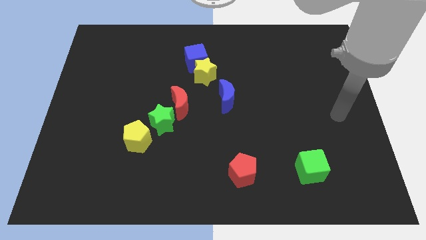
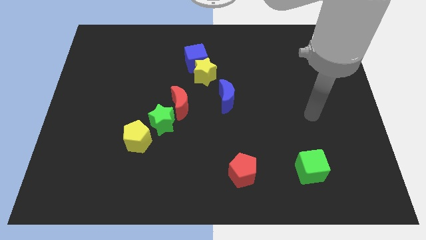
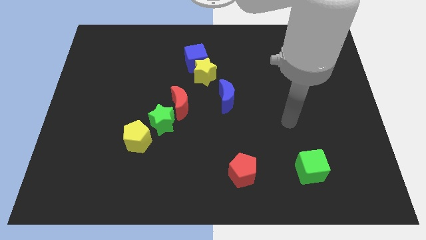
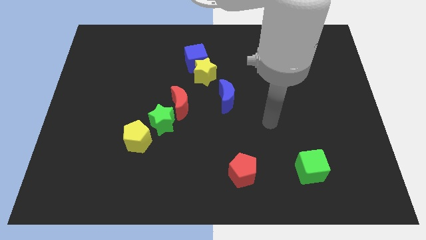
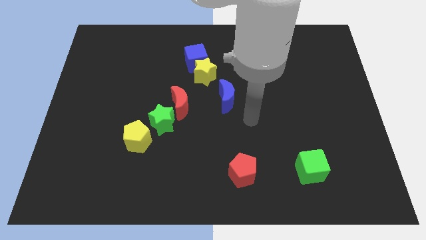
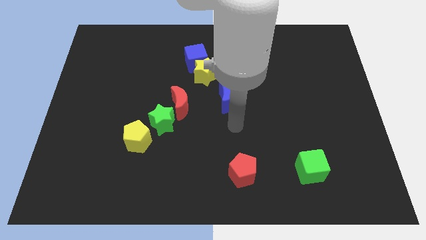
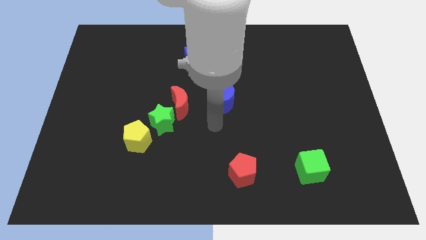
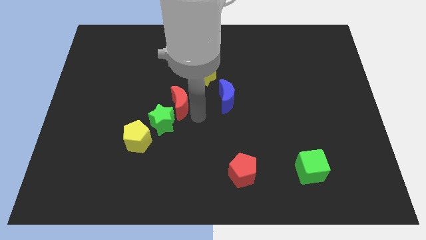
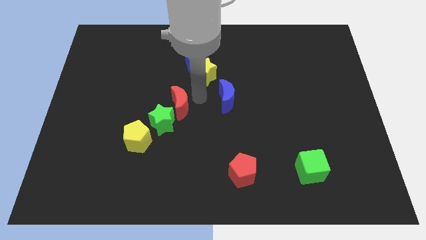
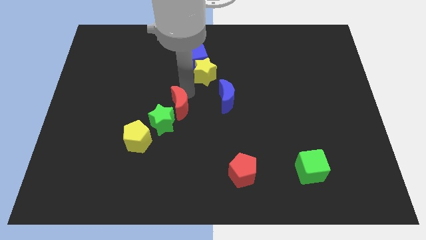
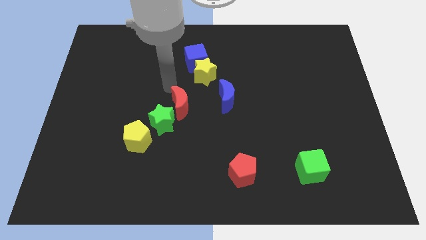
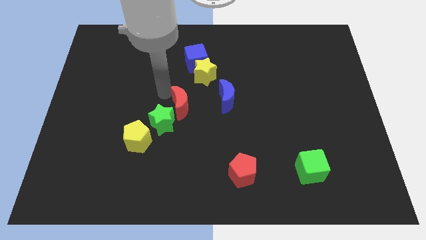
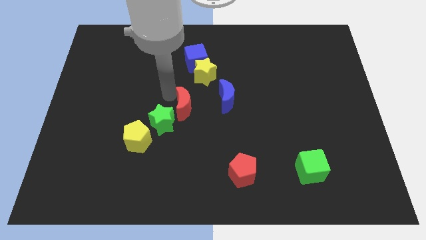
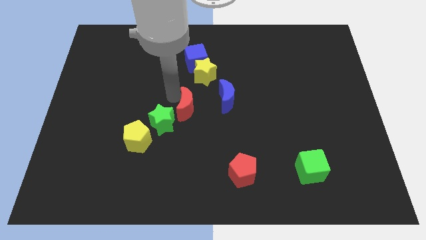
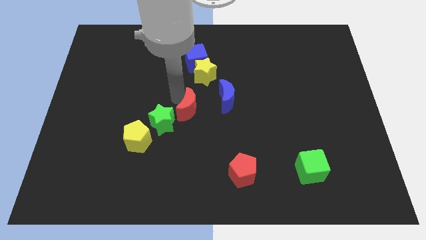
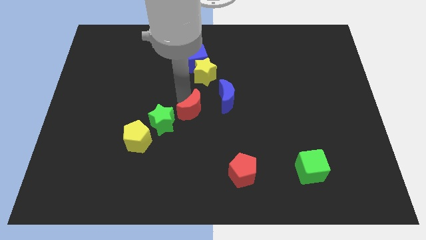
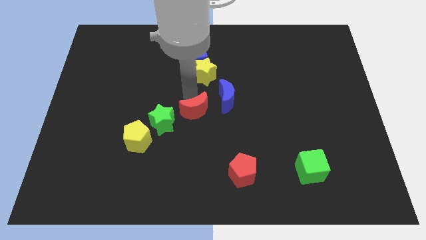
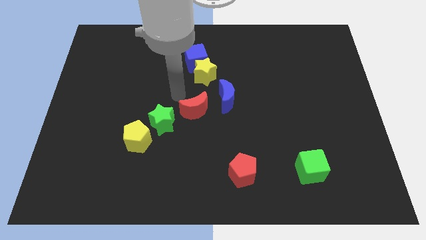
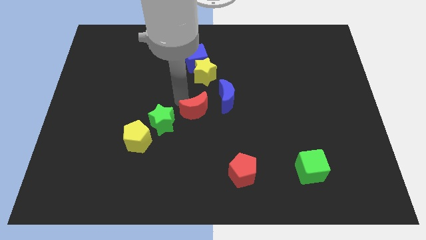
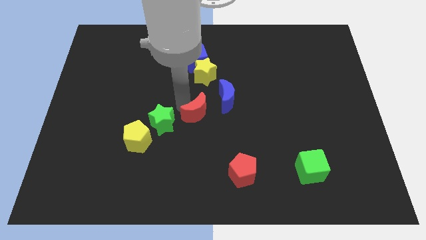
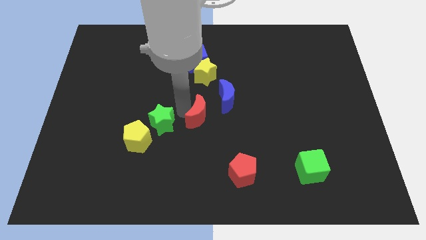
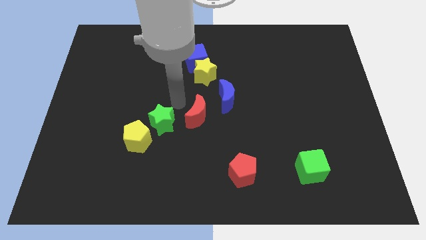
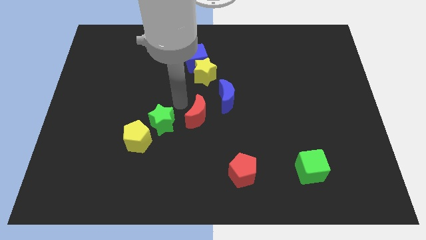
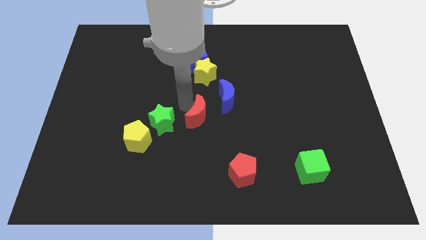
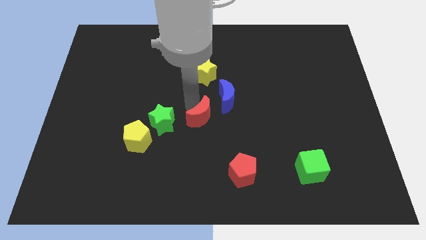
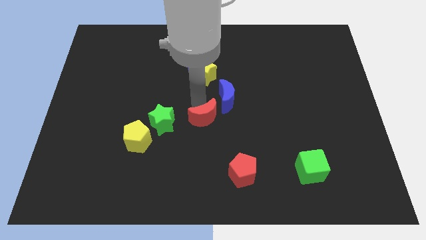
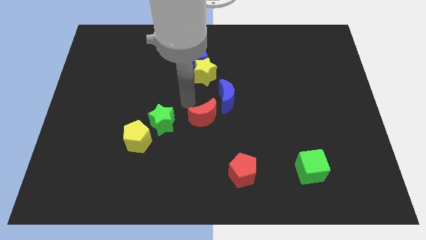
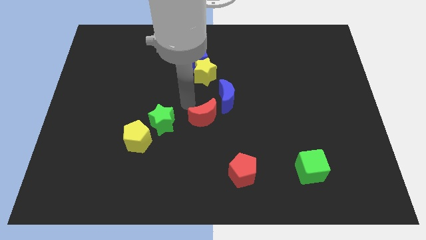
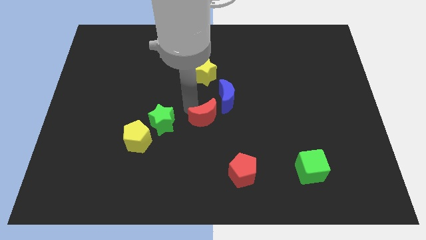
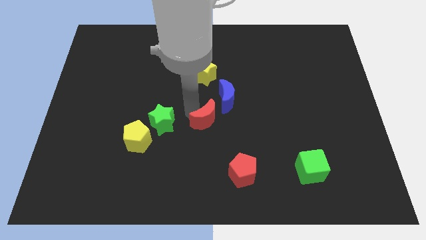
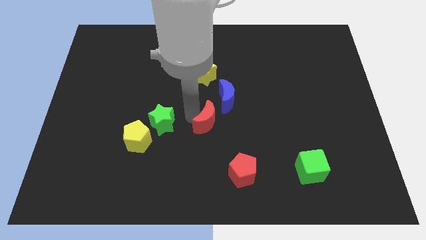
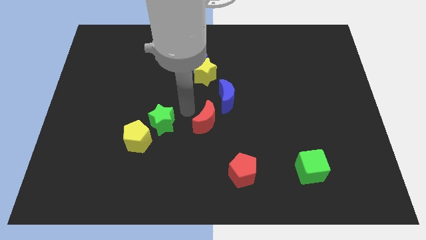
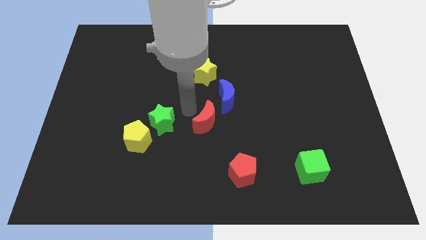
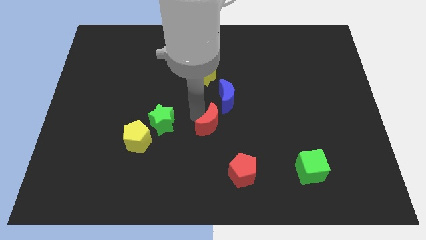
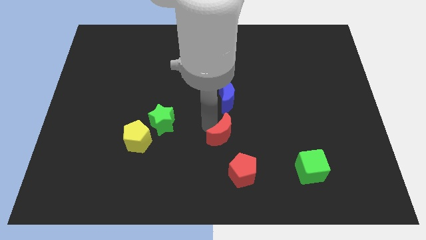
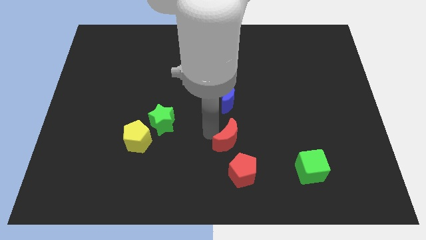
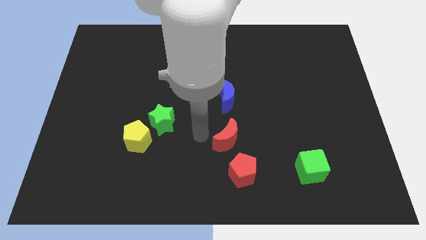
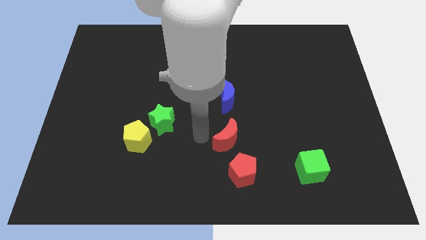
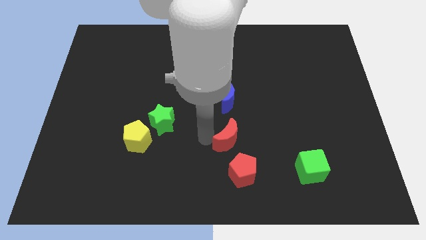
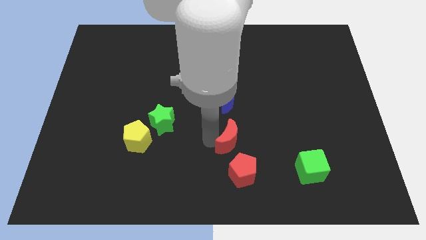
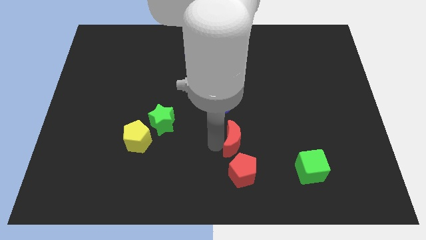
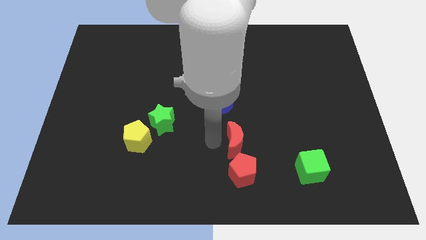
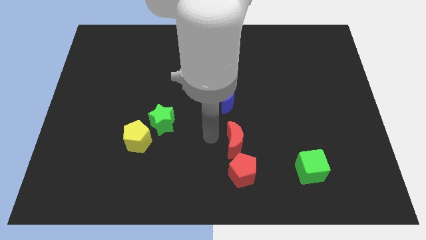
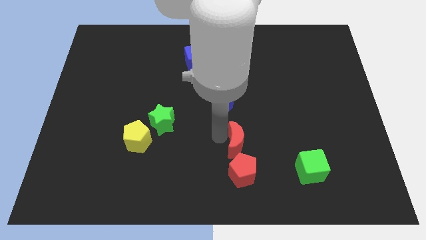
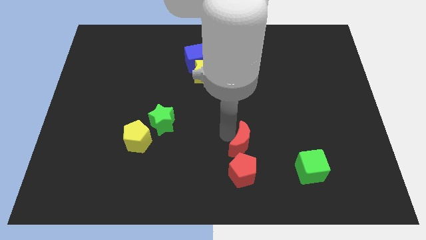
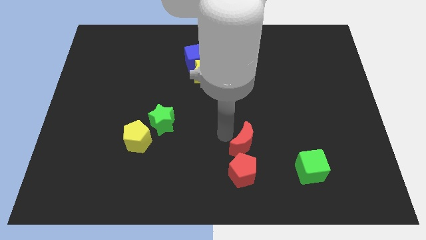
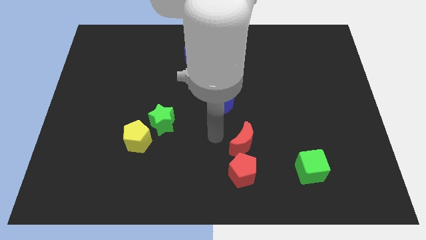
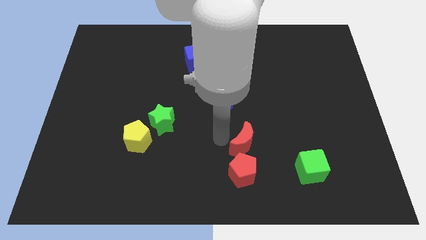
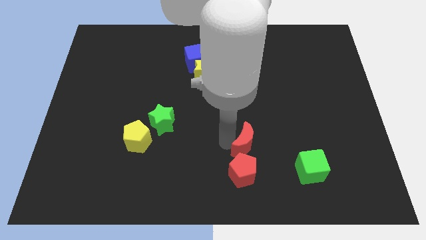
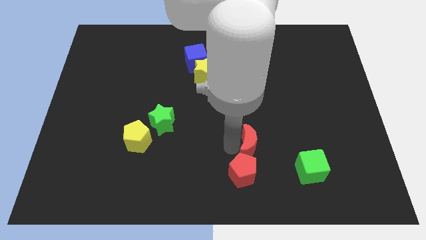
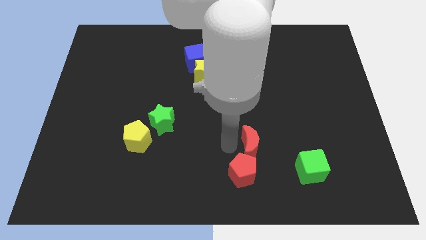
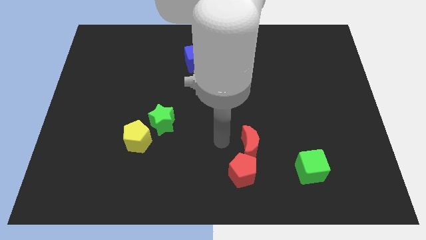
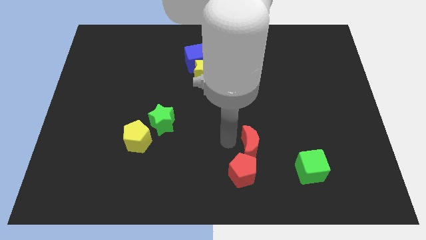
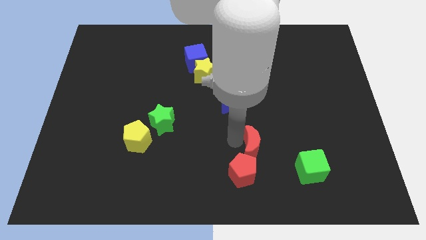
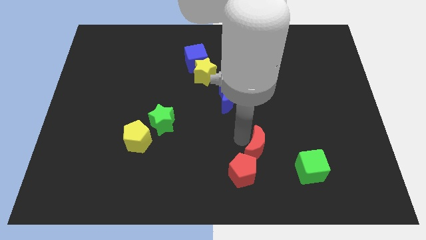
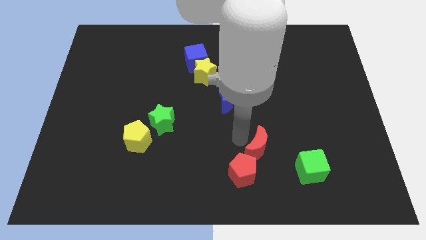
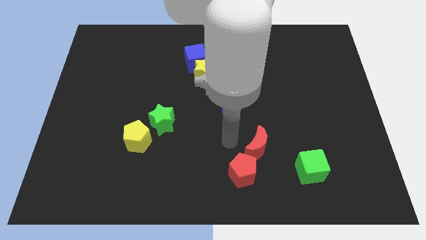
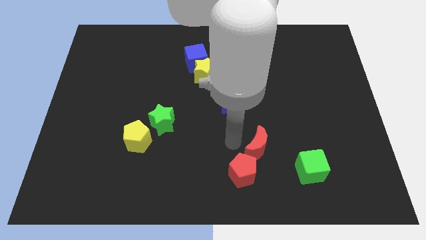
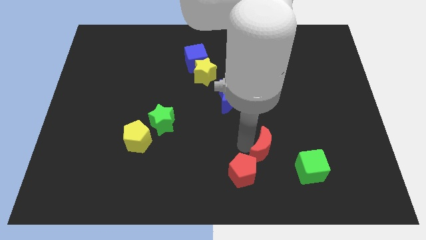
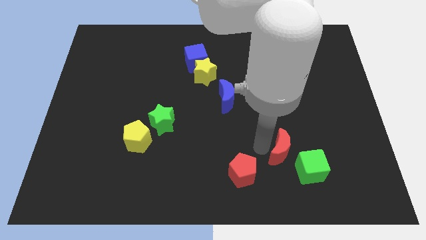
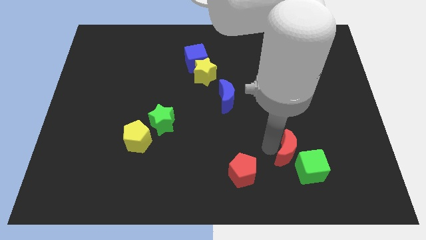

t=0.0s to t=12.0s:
push the red moon next to the green cube
